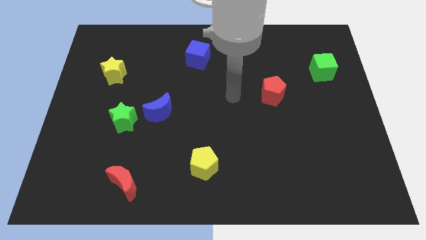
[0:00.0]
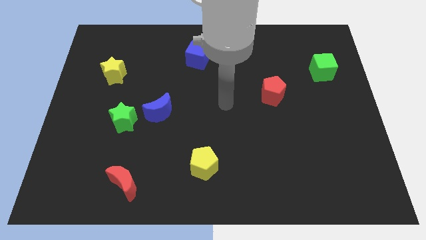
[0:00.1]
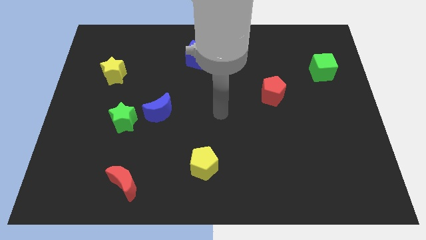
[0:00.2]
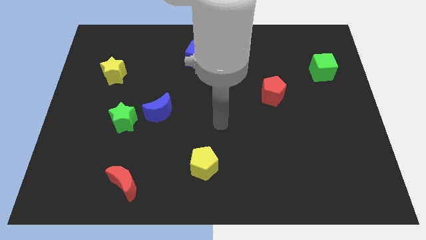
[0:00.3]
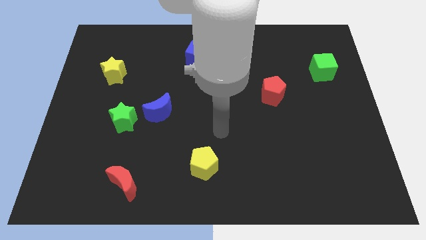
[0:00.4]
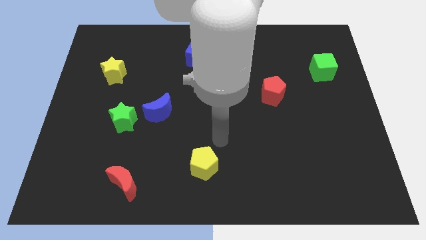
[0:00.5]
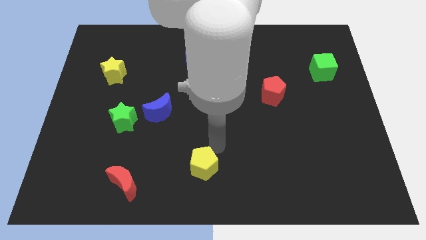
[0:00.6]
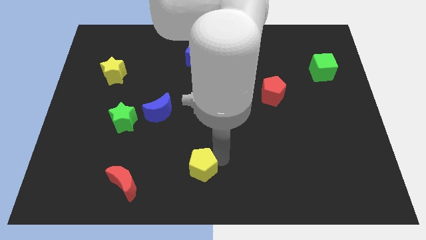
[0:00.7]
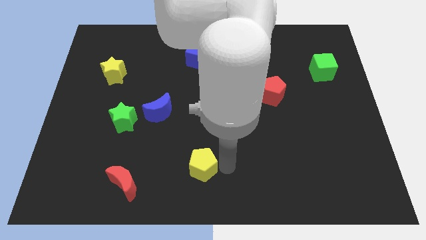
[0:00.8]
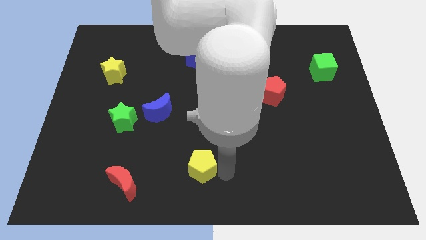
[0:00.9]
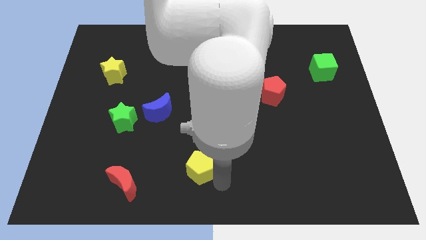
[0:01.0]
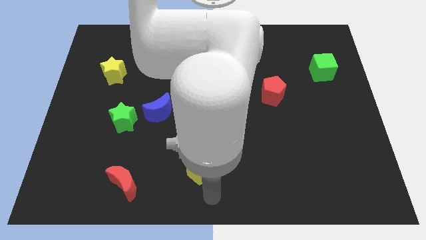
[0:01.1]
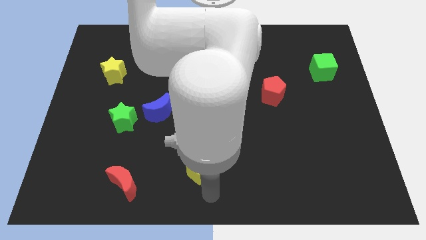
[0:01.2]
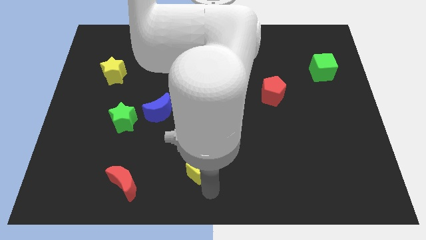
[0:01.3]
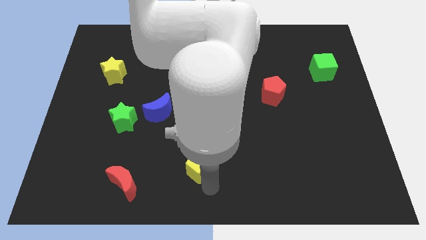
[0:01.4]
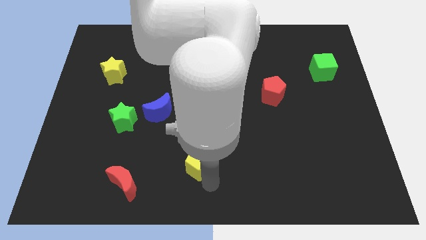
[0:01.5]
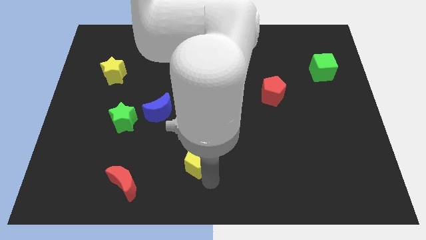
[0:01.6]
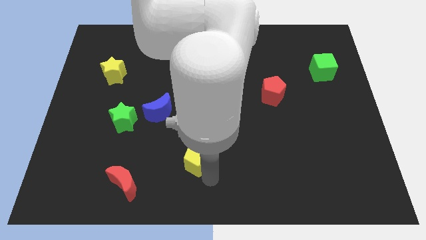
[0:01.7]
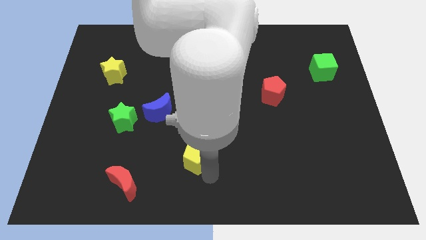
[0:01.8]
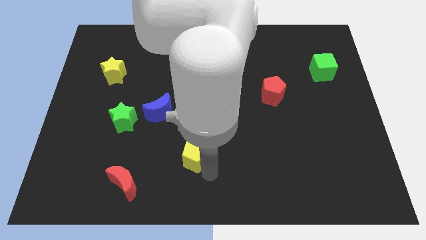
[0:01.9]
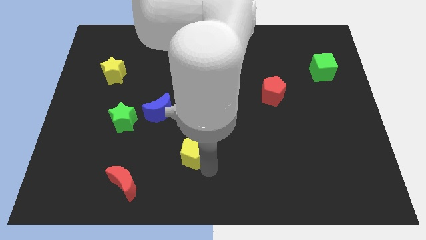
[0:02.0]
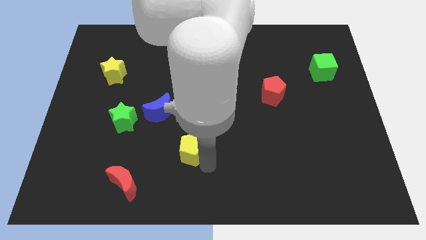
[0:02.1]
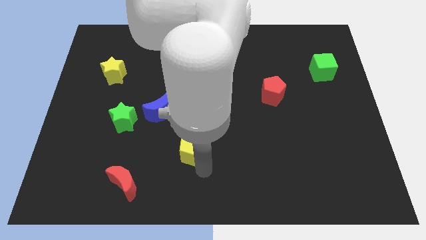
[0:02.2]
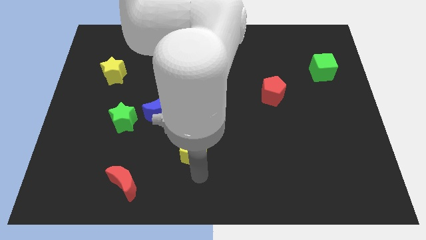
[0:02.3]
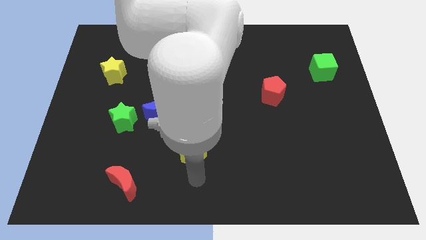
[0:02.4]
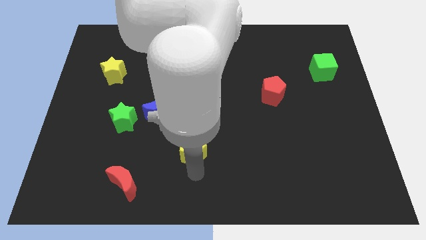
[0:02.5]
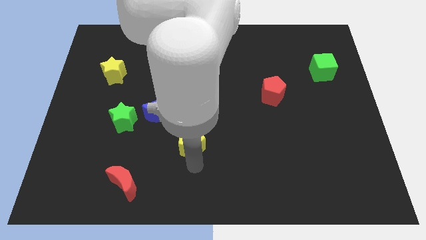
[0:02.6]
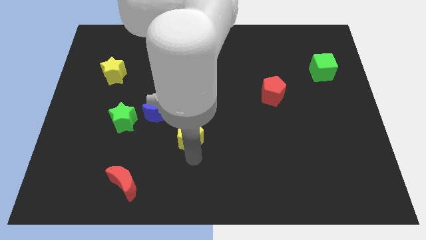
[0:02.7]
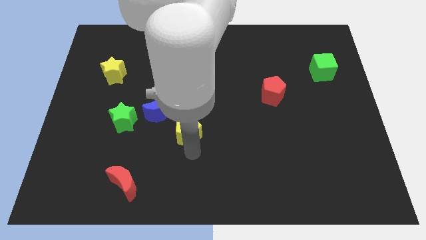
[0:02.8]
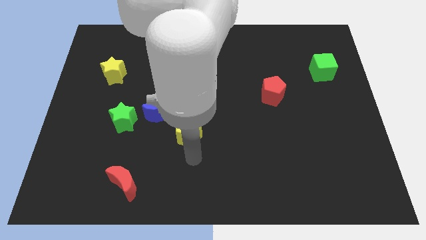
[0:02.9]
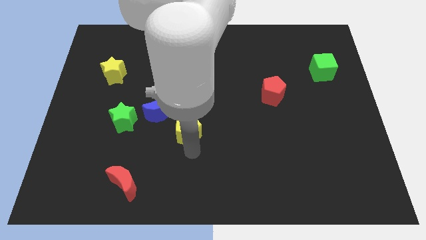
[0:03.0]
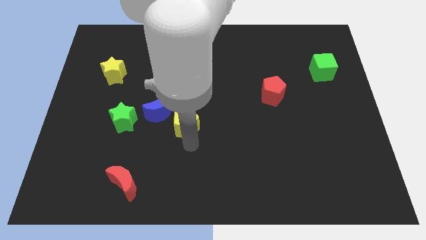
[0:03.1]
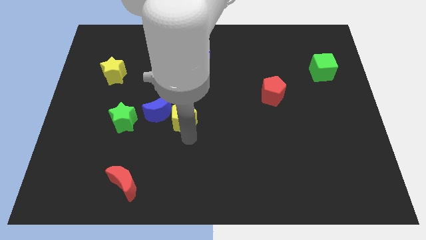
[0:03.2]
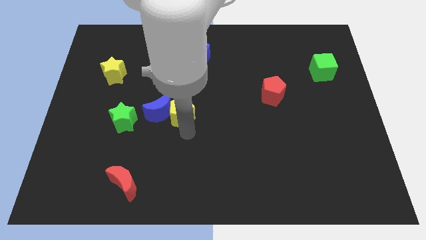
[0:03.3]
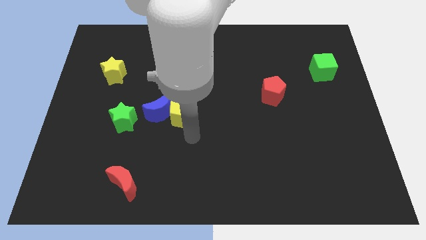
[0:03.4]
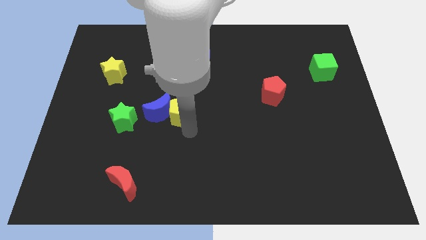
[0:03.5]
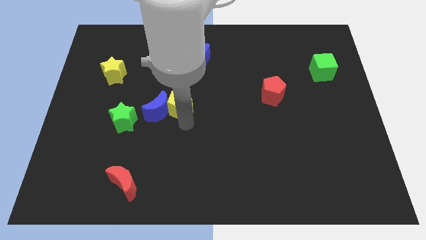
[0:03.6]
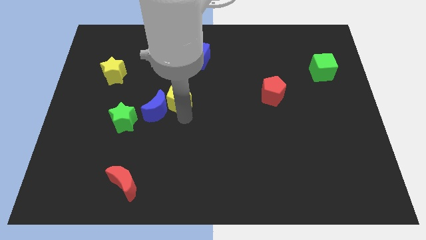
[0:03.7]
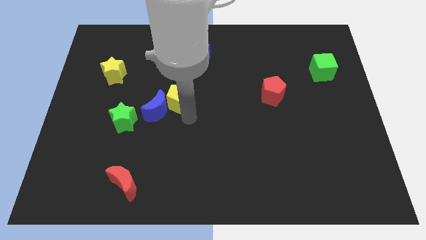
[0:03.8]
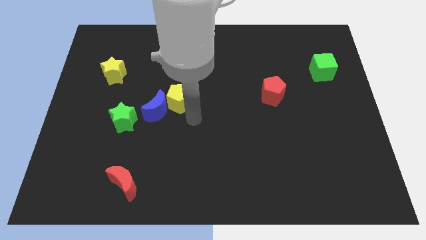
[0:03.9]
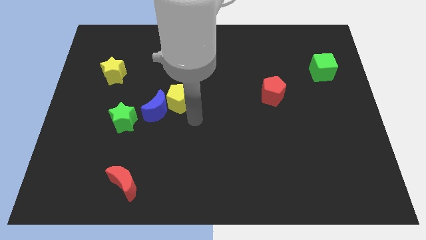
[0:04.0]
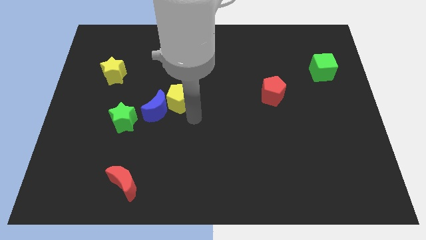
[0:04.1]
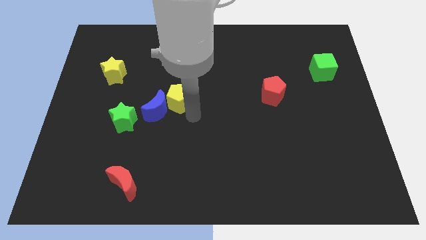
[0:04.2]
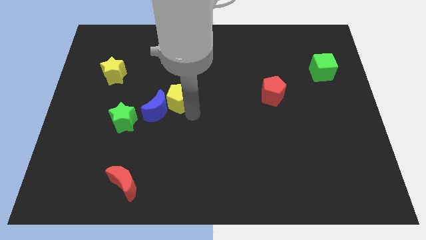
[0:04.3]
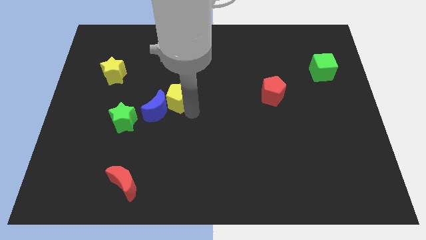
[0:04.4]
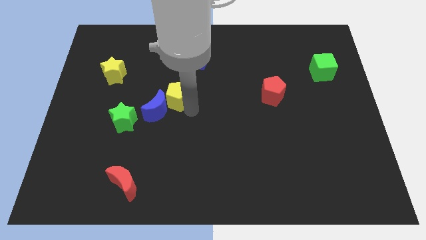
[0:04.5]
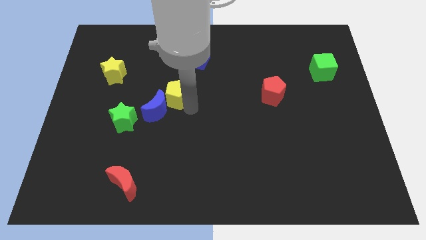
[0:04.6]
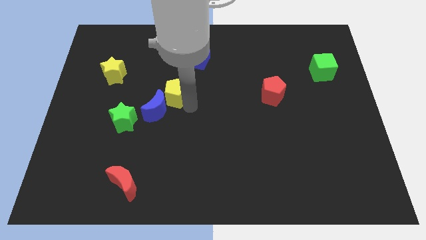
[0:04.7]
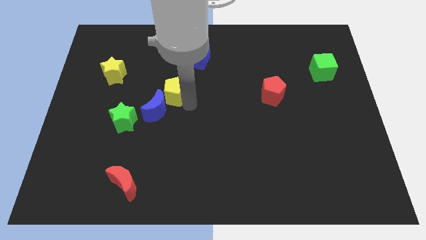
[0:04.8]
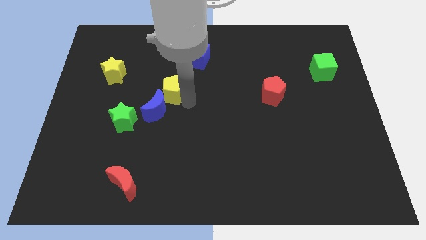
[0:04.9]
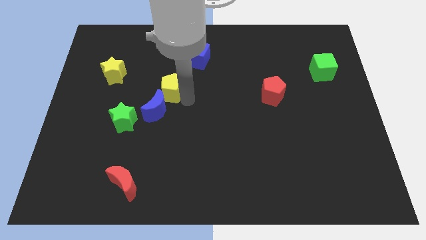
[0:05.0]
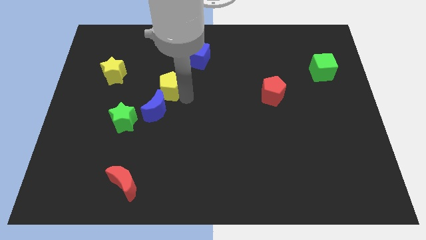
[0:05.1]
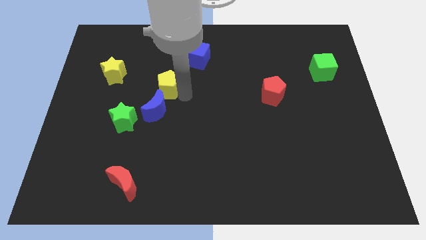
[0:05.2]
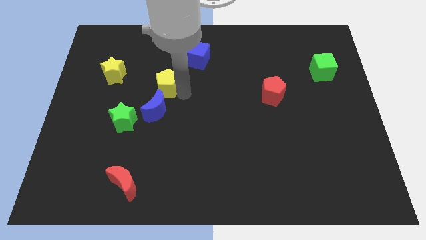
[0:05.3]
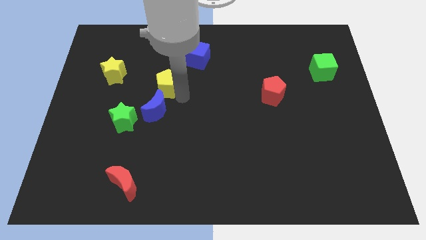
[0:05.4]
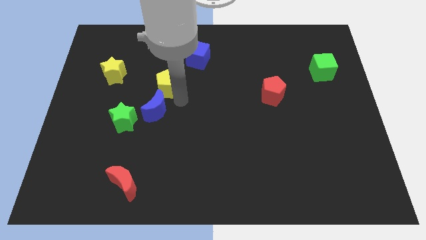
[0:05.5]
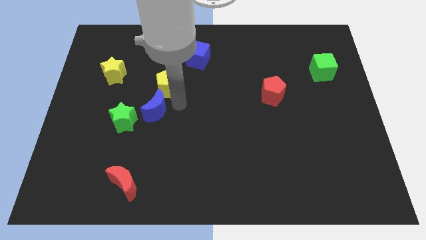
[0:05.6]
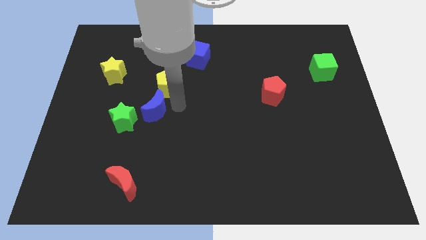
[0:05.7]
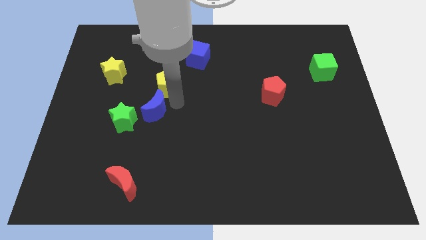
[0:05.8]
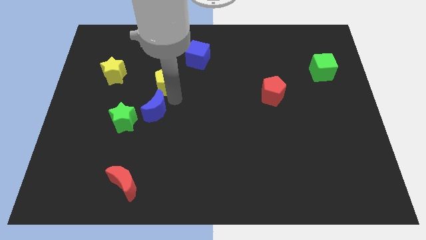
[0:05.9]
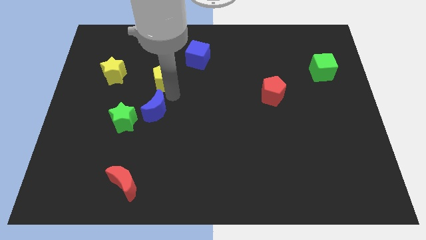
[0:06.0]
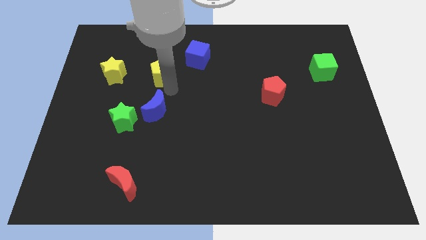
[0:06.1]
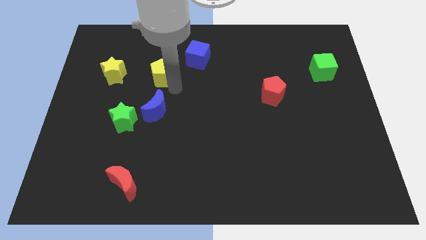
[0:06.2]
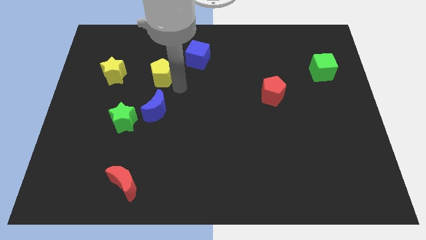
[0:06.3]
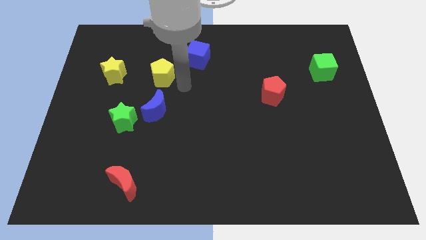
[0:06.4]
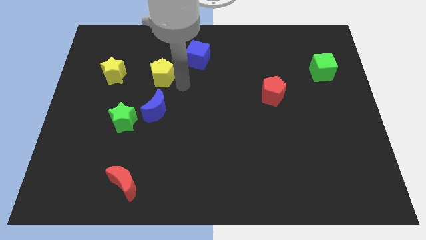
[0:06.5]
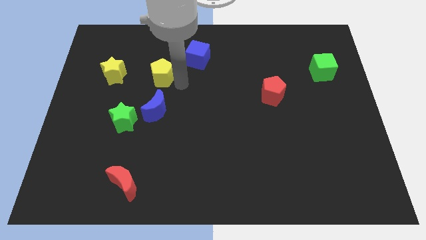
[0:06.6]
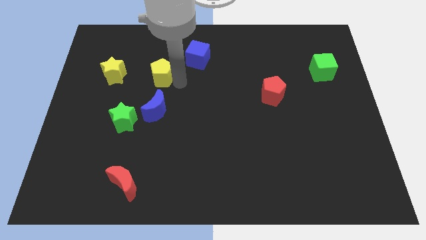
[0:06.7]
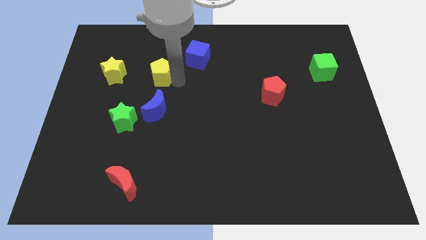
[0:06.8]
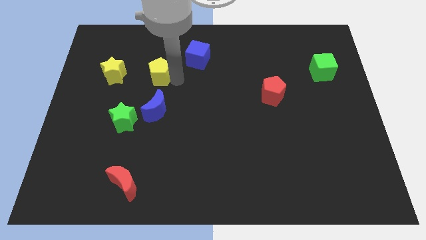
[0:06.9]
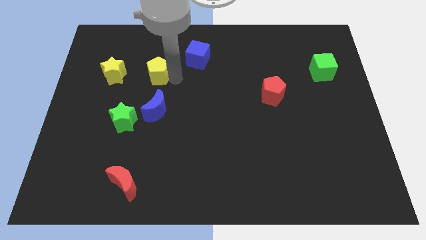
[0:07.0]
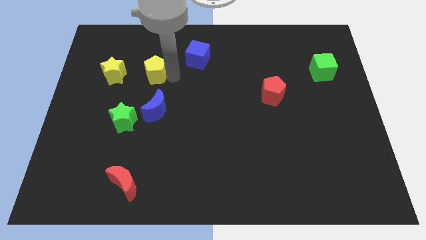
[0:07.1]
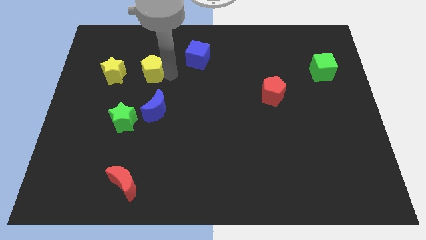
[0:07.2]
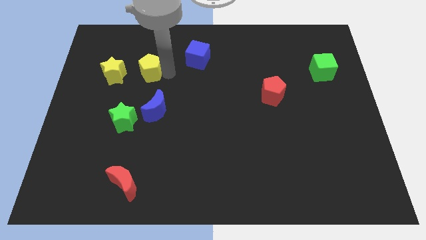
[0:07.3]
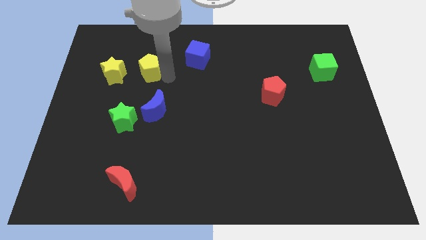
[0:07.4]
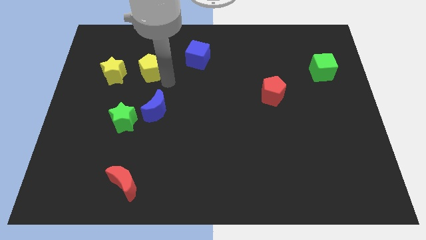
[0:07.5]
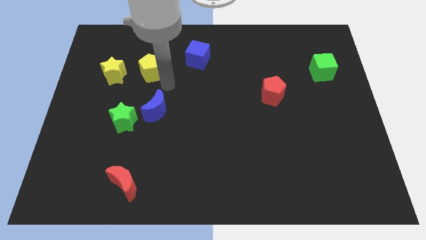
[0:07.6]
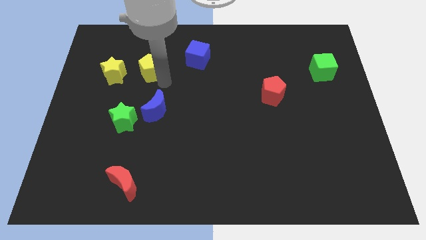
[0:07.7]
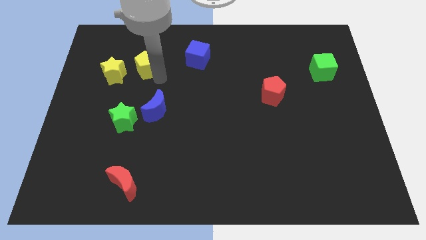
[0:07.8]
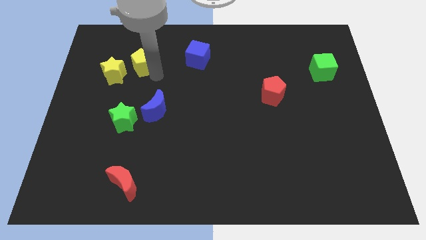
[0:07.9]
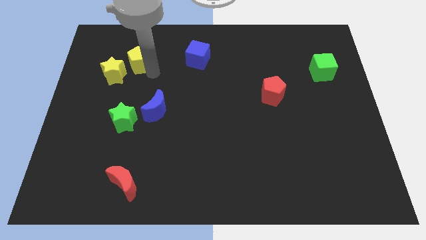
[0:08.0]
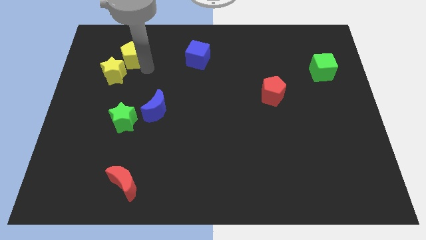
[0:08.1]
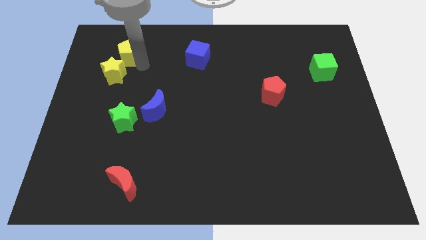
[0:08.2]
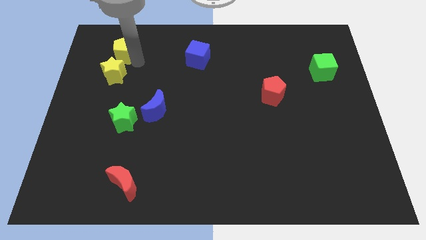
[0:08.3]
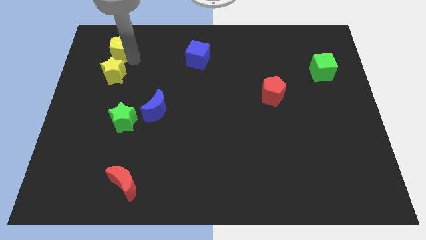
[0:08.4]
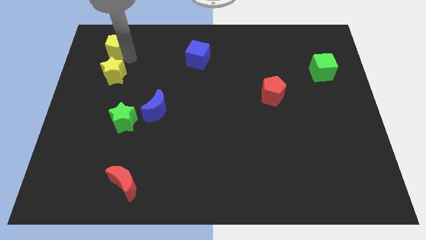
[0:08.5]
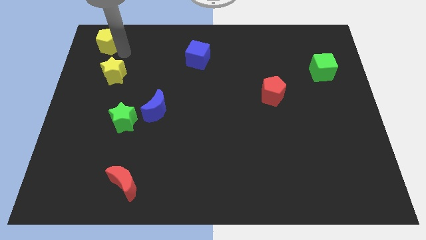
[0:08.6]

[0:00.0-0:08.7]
put the yellow pentagon to the top left of the board
